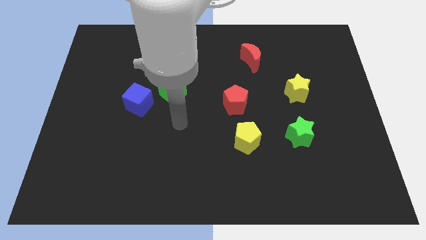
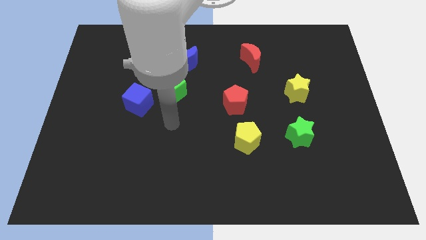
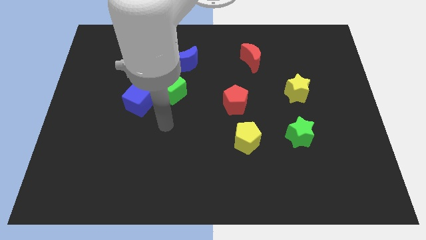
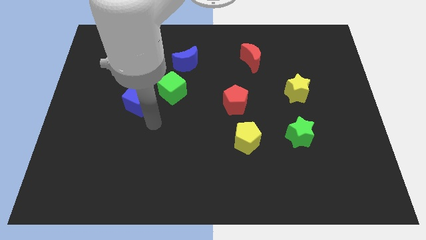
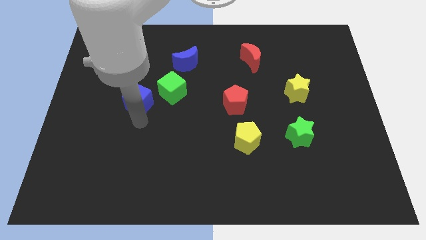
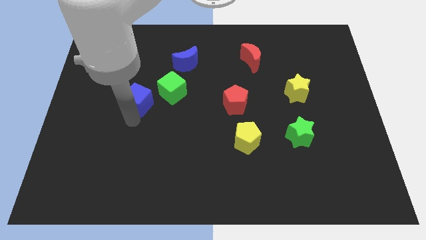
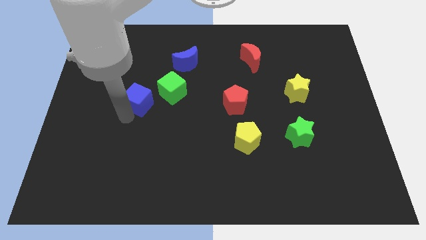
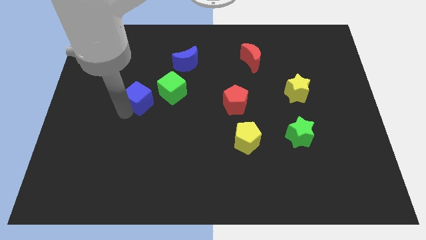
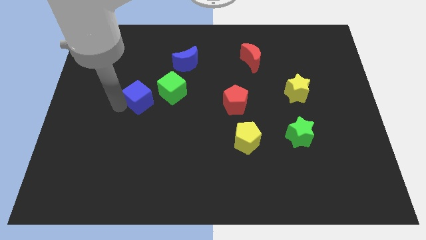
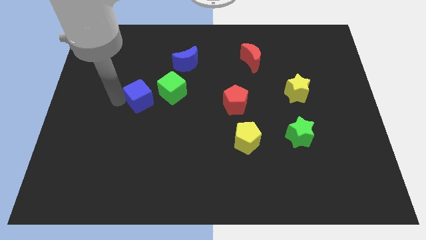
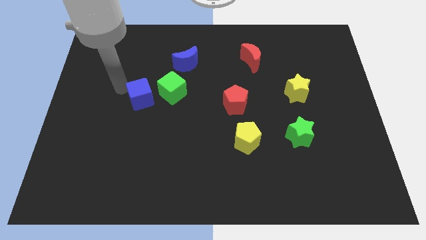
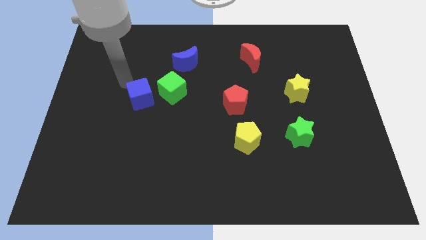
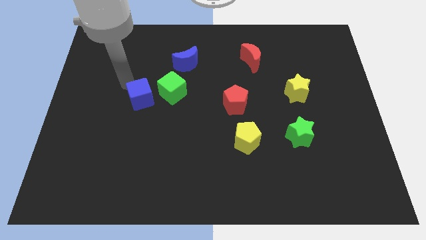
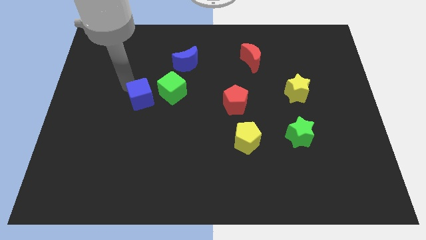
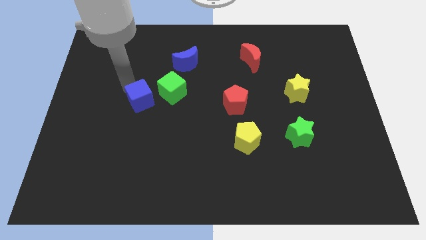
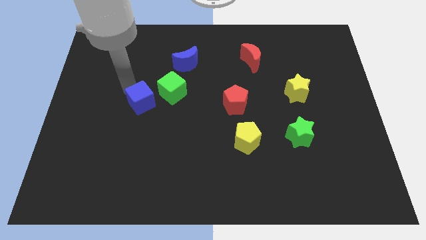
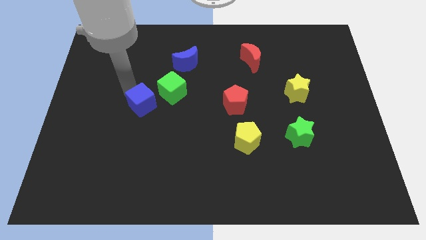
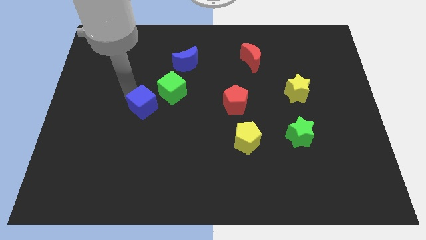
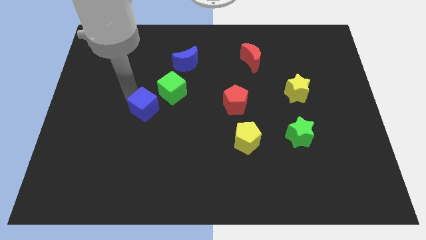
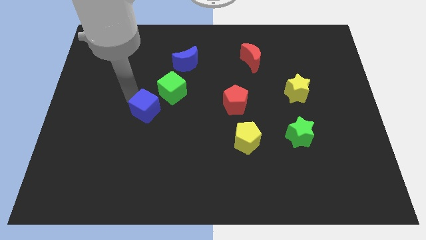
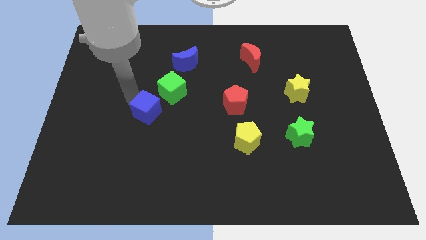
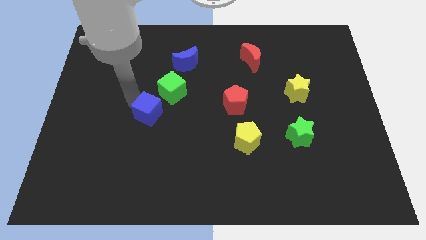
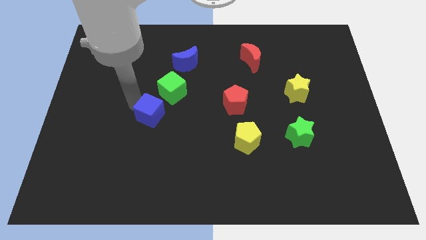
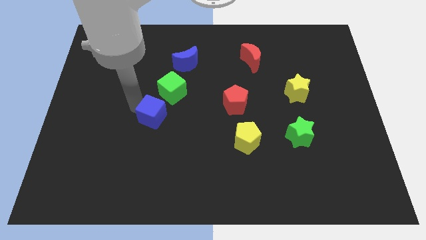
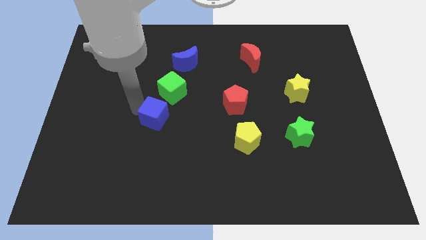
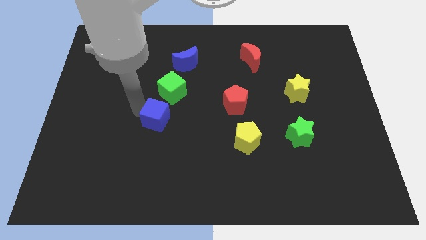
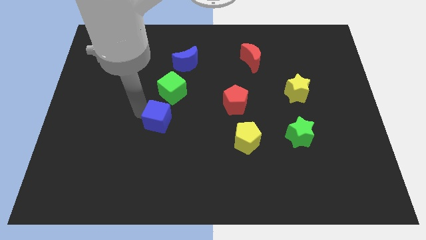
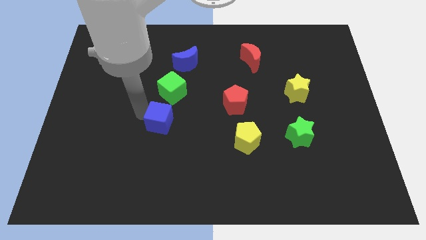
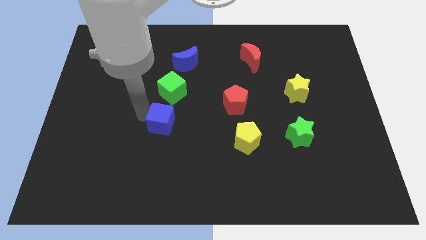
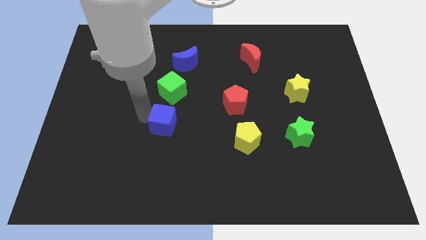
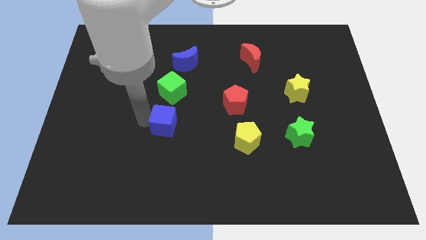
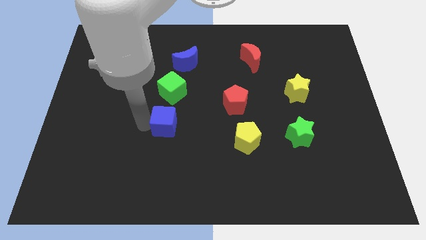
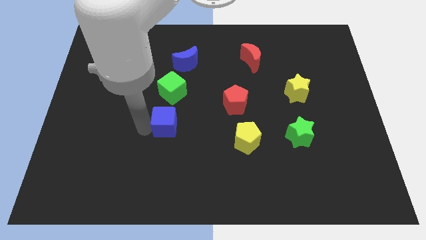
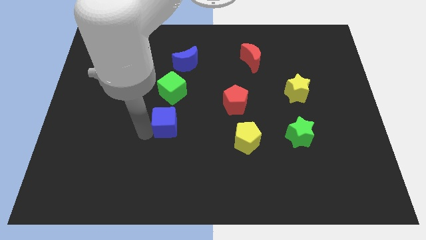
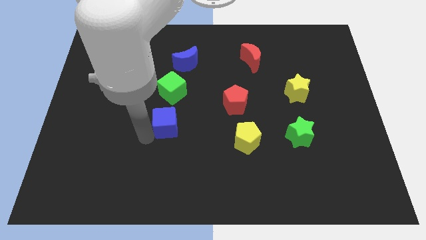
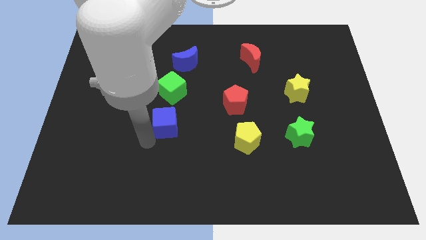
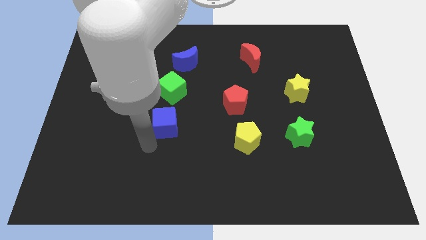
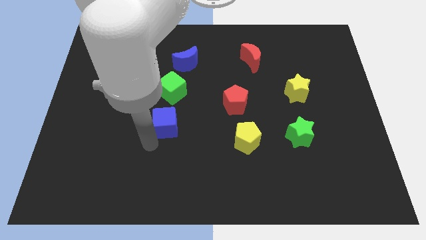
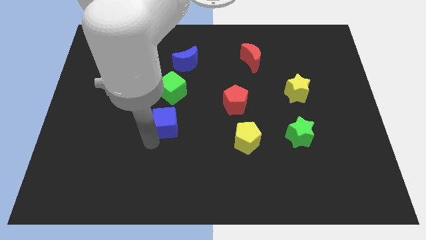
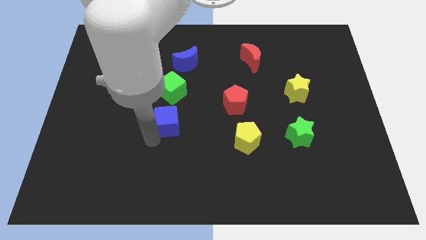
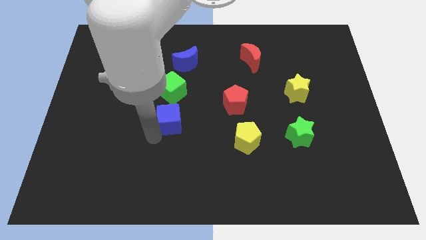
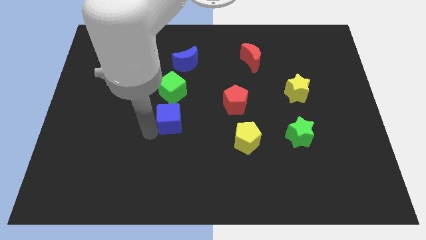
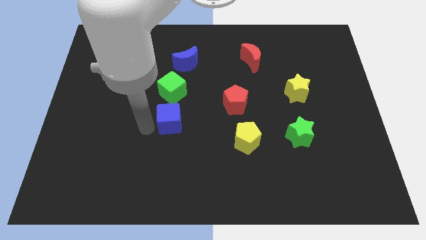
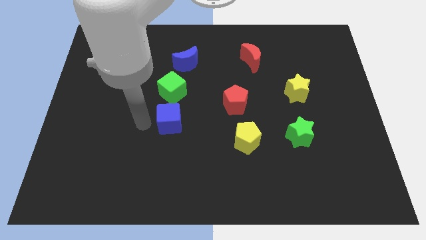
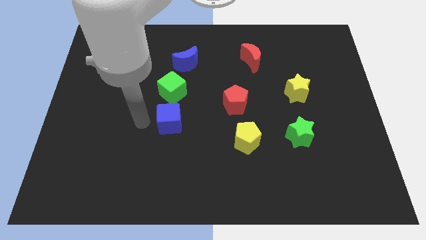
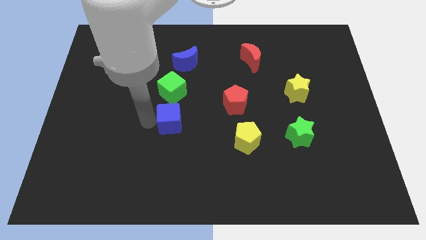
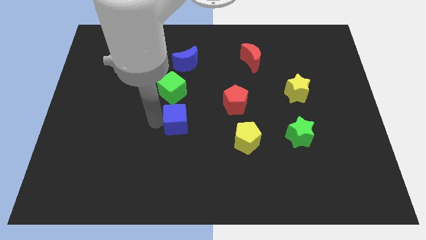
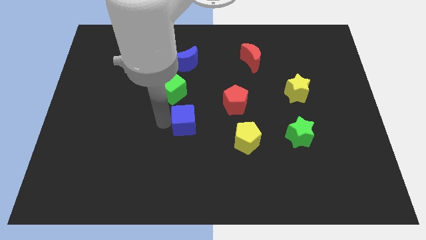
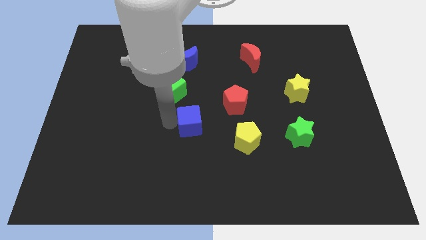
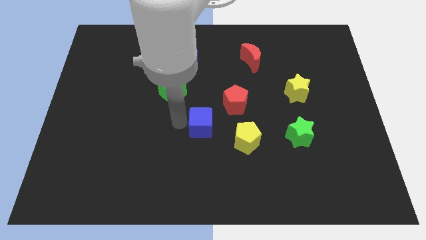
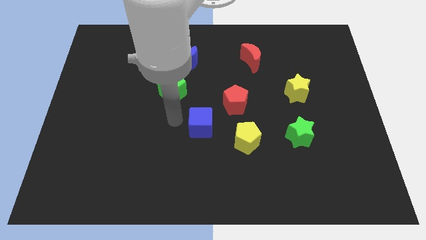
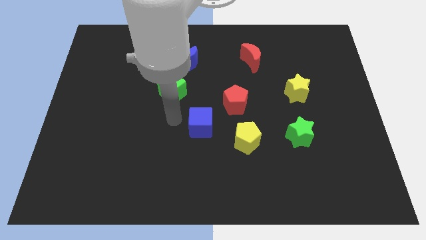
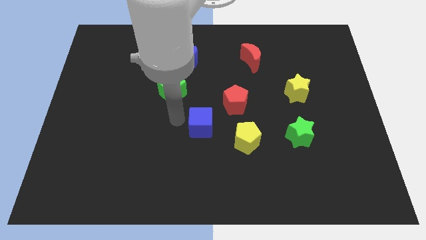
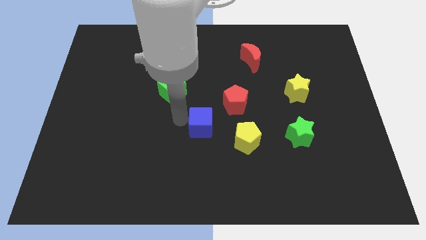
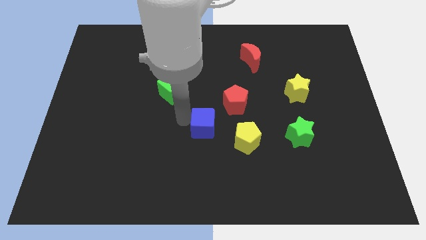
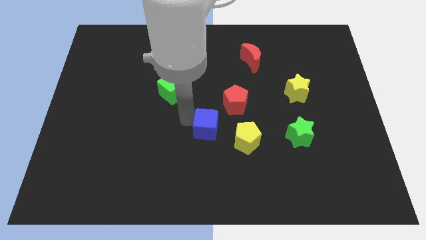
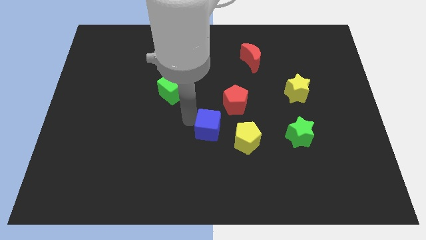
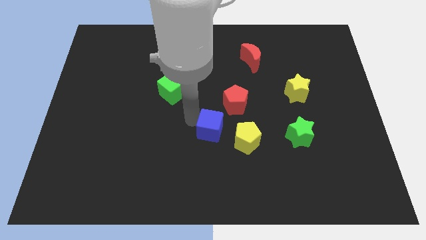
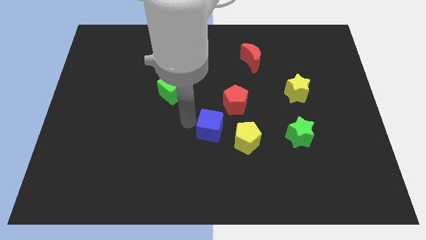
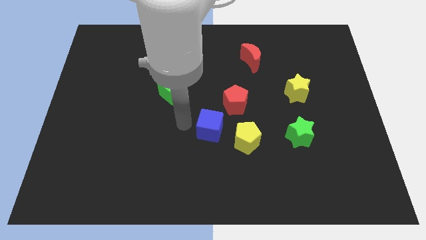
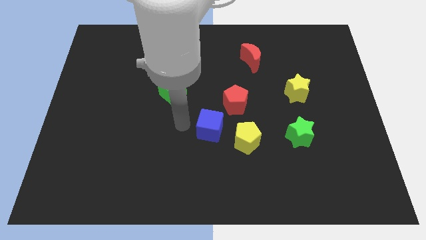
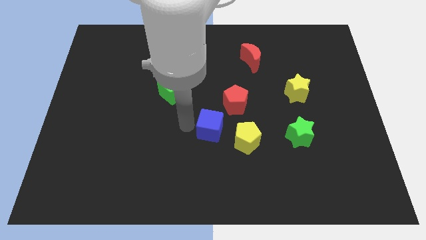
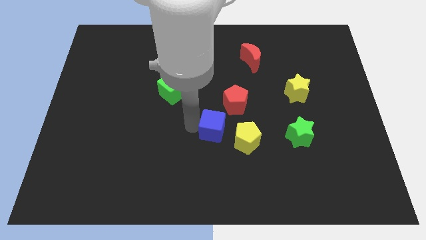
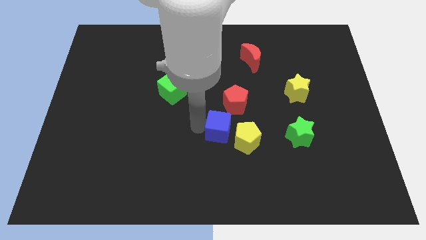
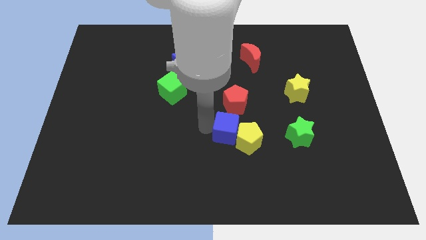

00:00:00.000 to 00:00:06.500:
put the blue cube towards the yellow pentagon
